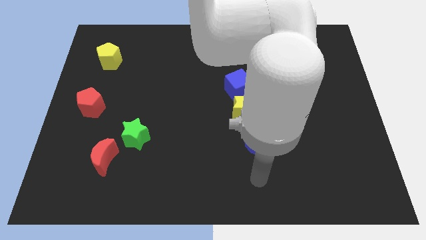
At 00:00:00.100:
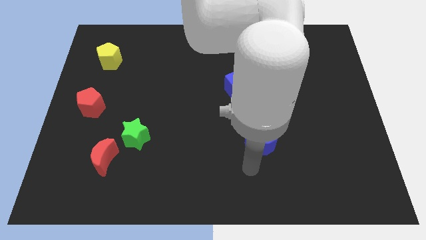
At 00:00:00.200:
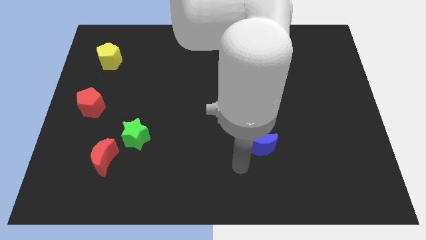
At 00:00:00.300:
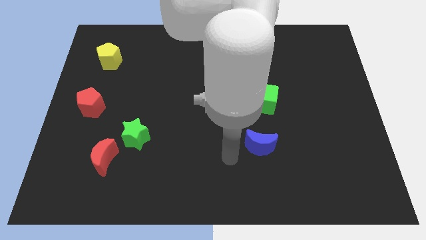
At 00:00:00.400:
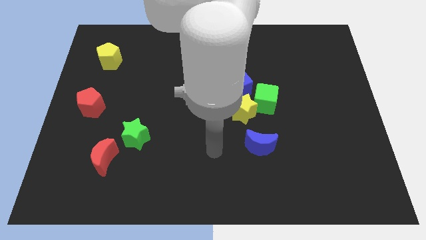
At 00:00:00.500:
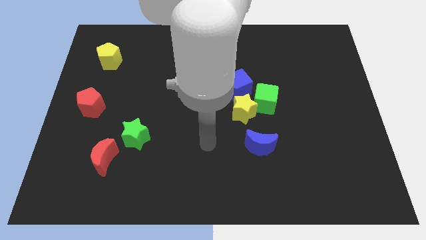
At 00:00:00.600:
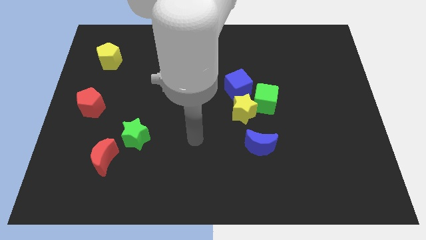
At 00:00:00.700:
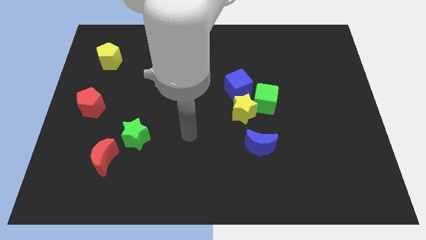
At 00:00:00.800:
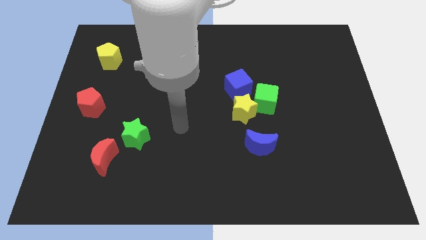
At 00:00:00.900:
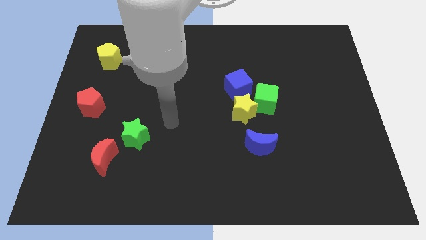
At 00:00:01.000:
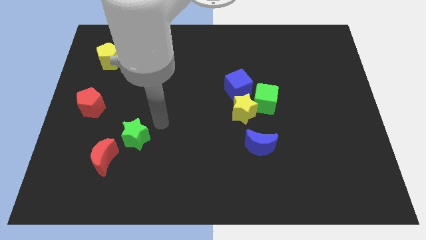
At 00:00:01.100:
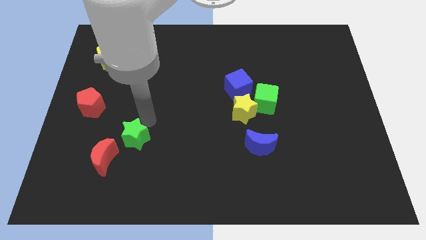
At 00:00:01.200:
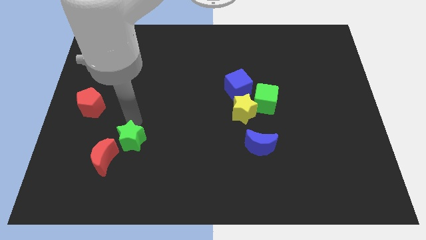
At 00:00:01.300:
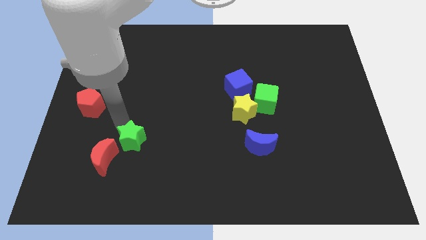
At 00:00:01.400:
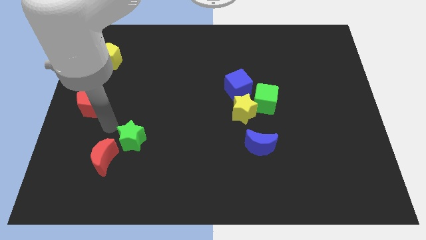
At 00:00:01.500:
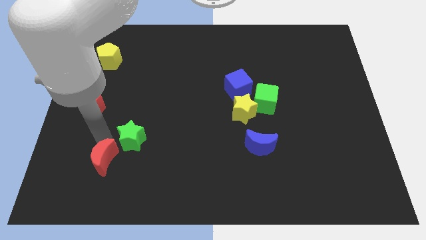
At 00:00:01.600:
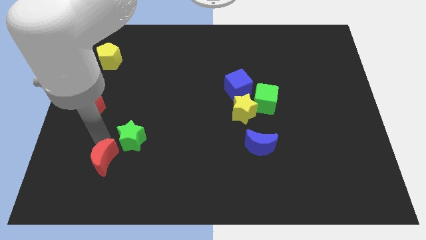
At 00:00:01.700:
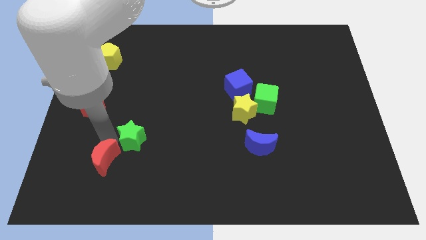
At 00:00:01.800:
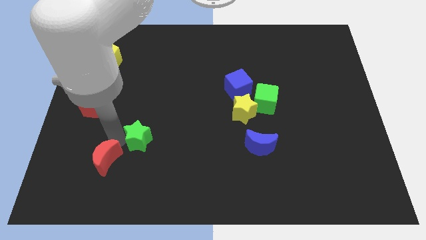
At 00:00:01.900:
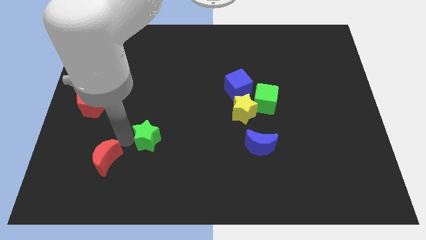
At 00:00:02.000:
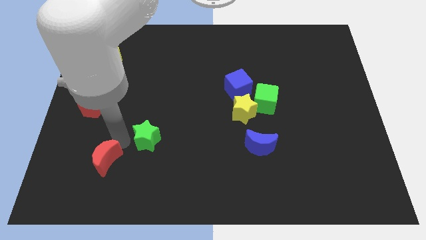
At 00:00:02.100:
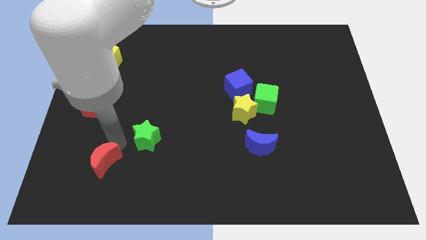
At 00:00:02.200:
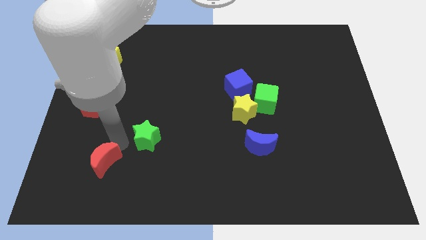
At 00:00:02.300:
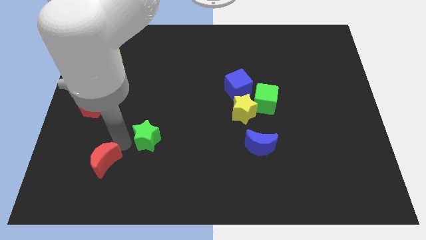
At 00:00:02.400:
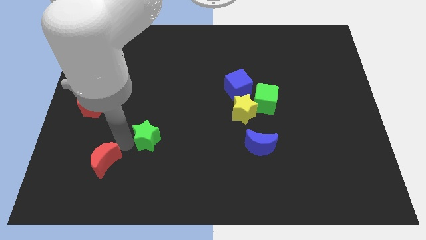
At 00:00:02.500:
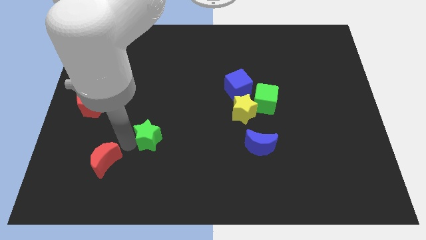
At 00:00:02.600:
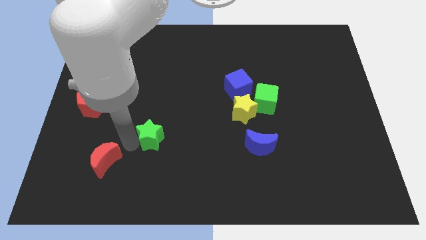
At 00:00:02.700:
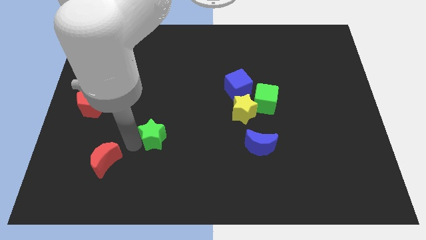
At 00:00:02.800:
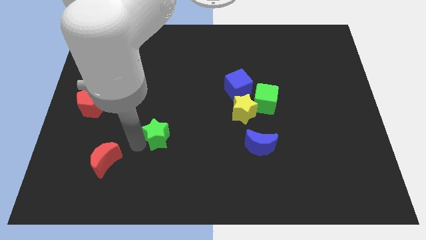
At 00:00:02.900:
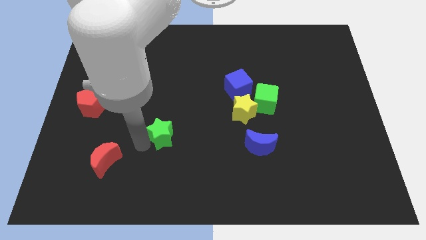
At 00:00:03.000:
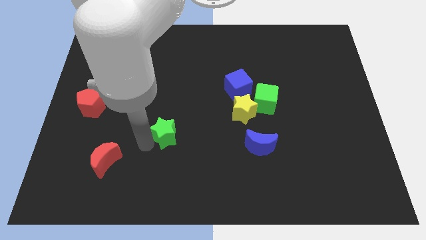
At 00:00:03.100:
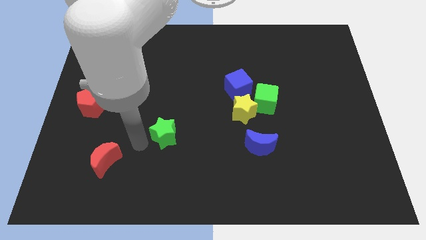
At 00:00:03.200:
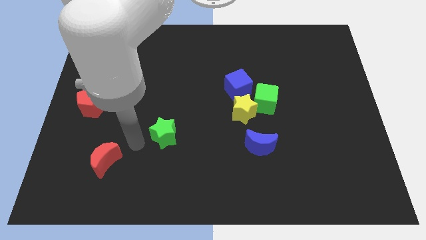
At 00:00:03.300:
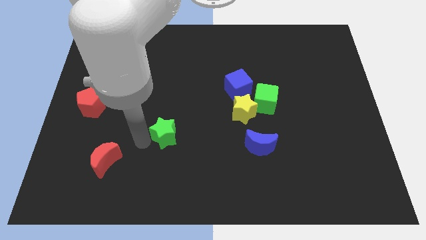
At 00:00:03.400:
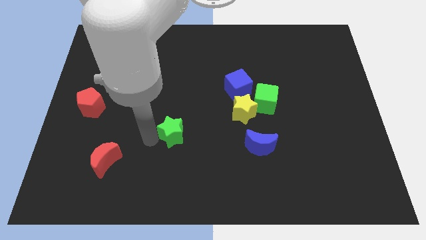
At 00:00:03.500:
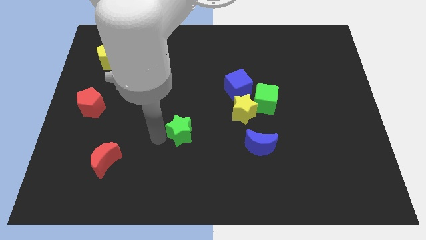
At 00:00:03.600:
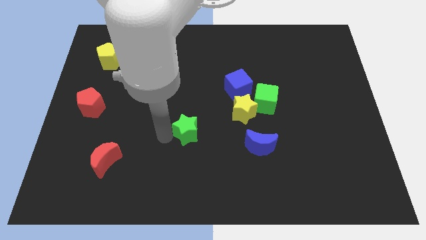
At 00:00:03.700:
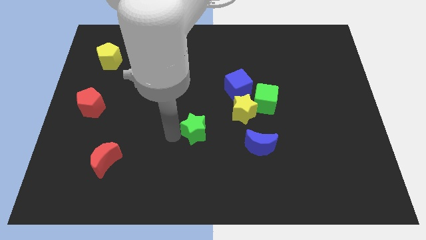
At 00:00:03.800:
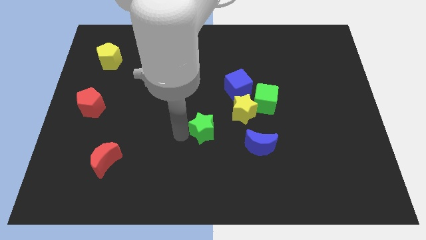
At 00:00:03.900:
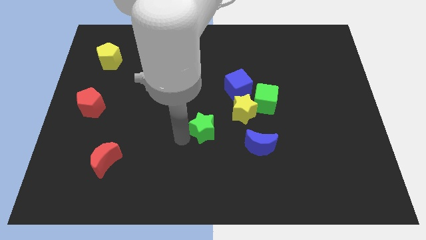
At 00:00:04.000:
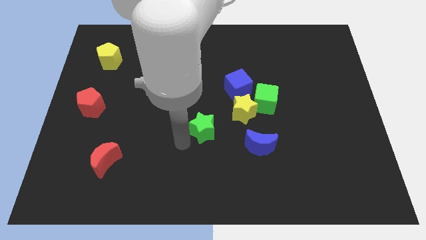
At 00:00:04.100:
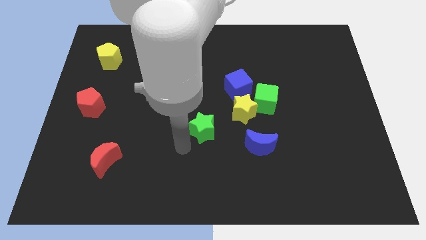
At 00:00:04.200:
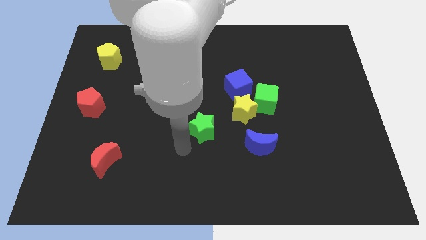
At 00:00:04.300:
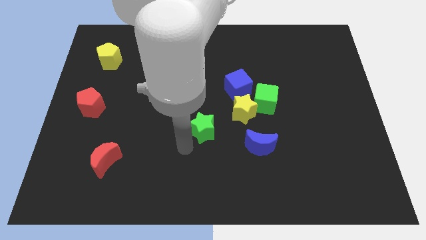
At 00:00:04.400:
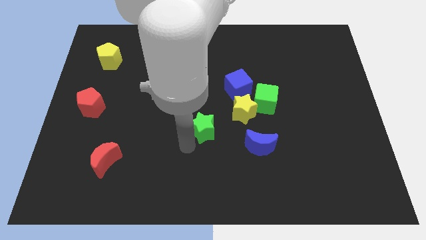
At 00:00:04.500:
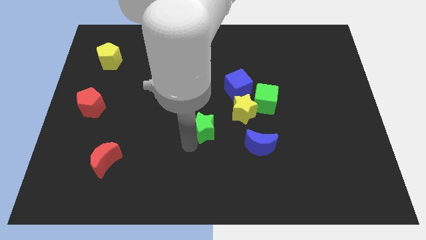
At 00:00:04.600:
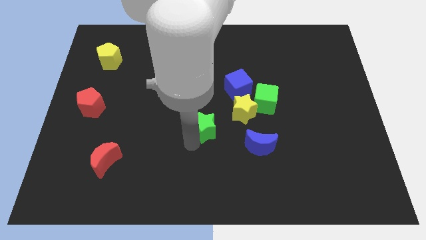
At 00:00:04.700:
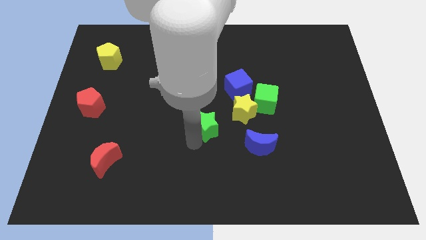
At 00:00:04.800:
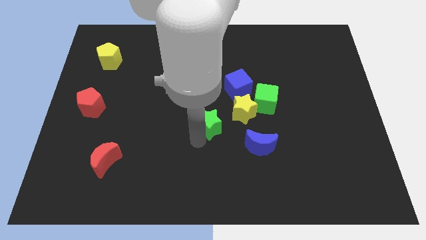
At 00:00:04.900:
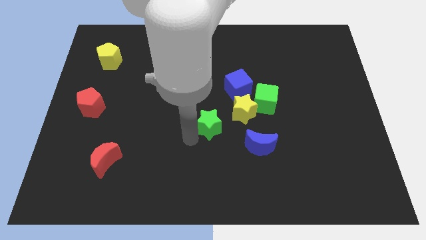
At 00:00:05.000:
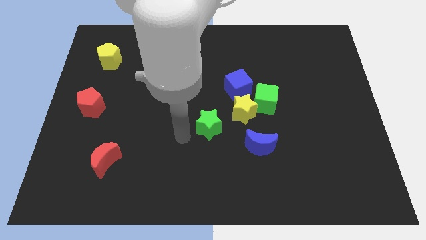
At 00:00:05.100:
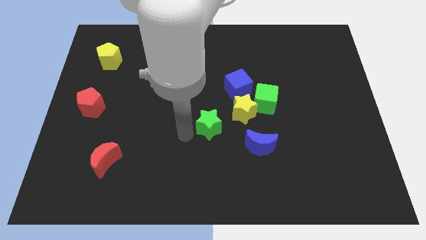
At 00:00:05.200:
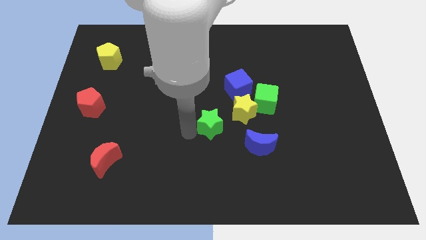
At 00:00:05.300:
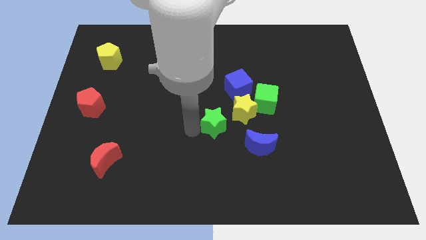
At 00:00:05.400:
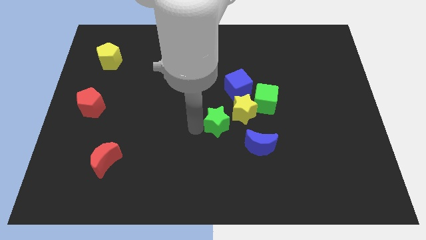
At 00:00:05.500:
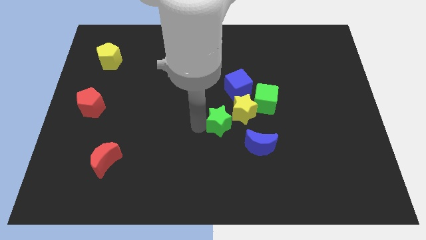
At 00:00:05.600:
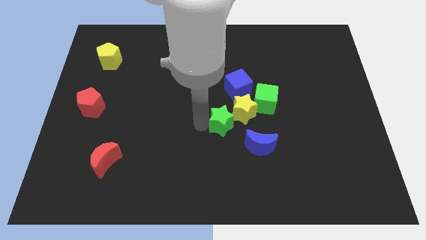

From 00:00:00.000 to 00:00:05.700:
move the green star towards the yellow star
